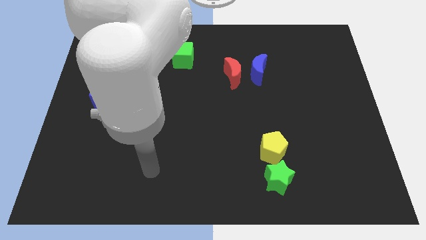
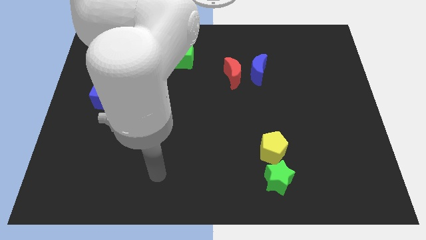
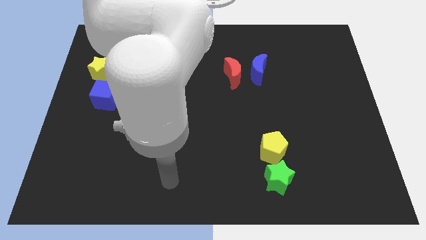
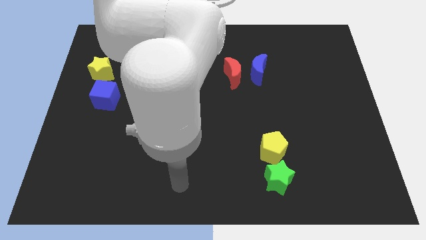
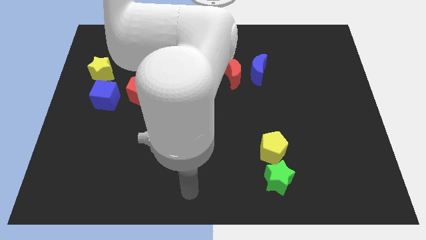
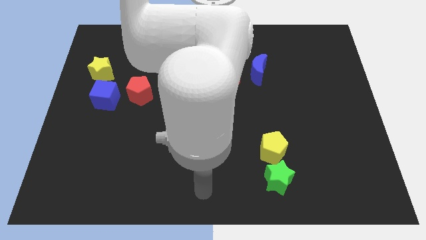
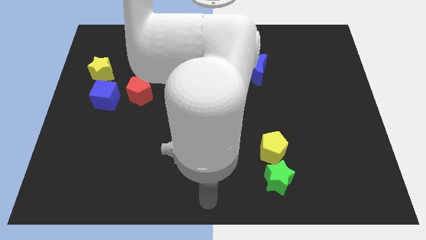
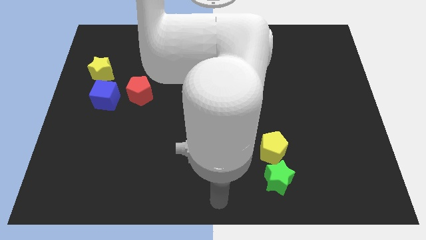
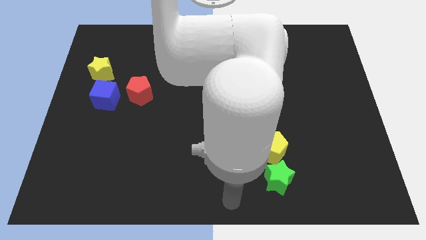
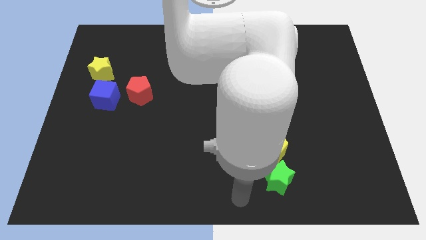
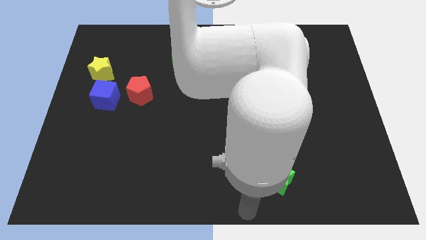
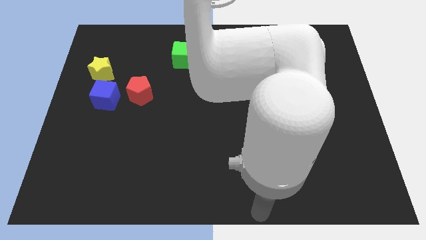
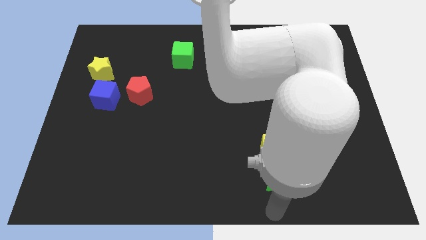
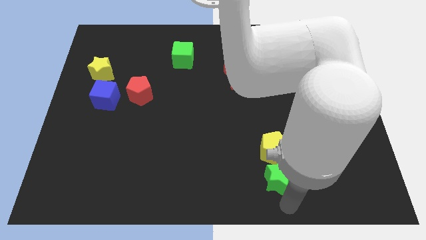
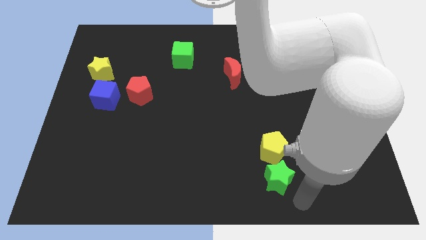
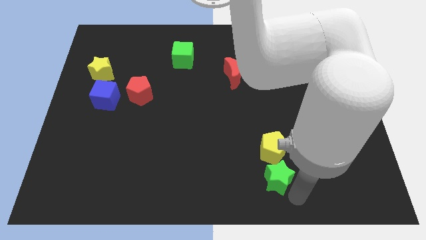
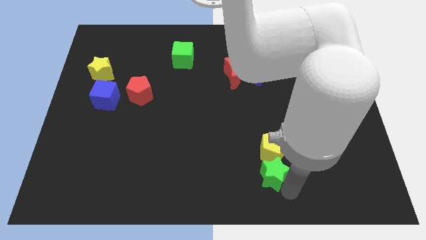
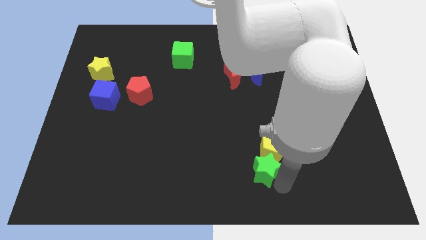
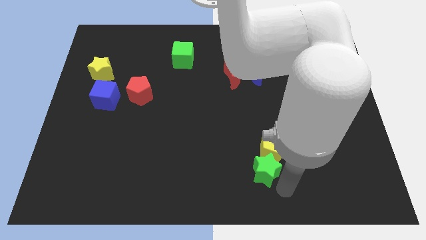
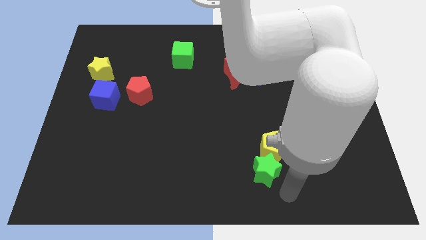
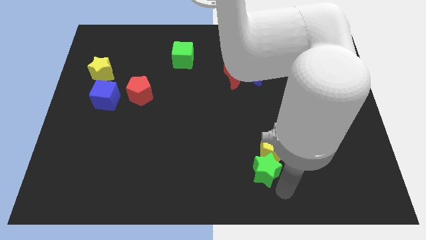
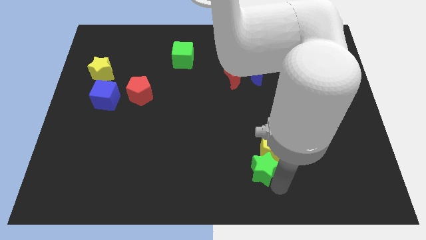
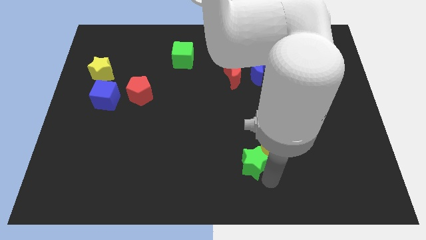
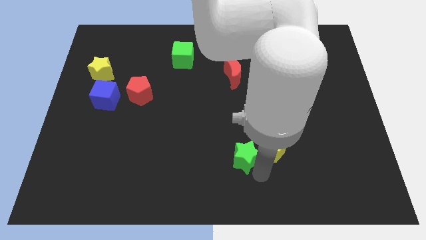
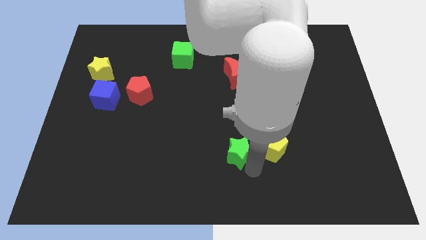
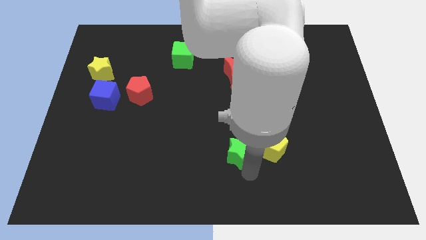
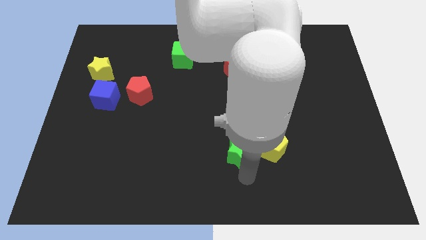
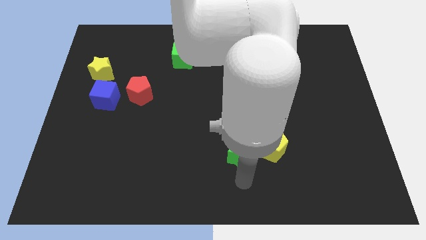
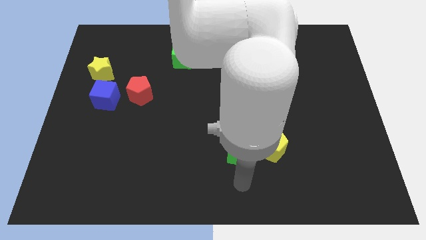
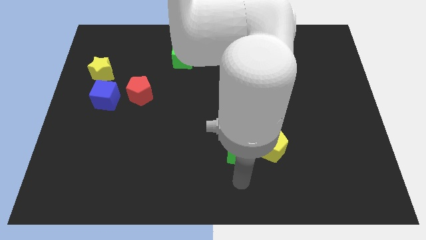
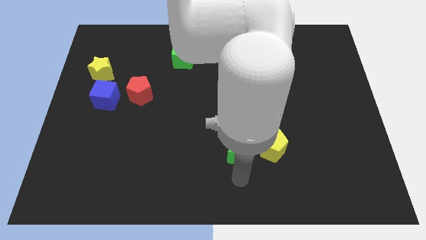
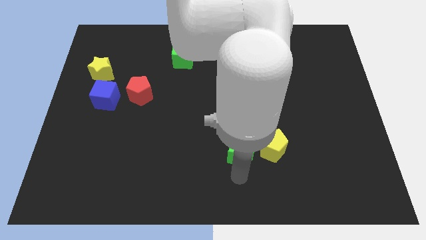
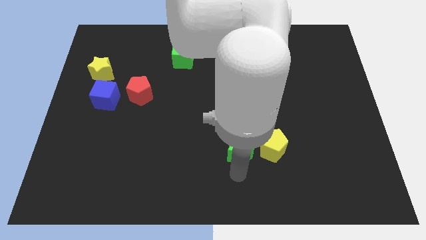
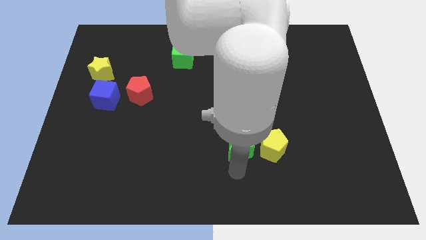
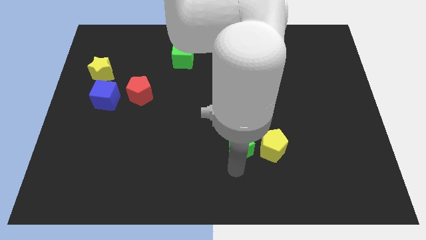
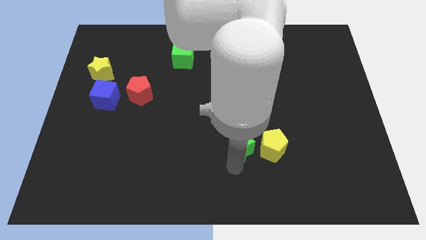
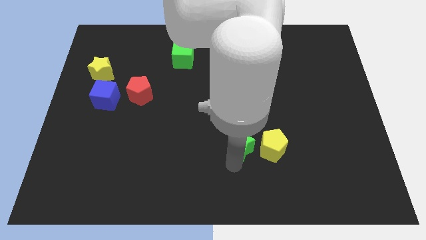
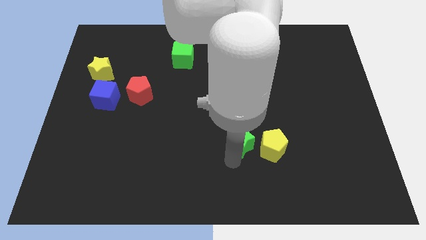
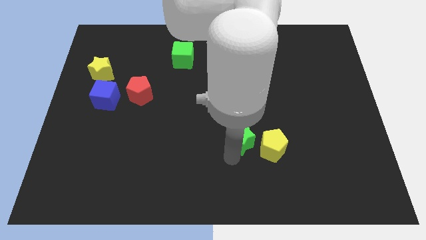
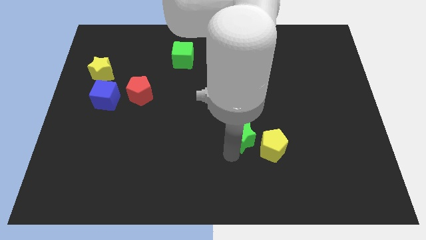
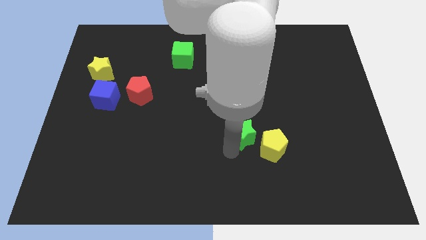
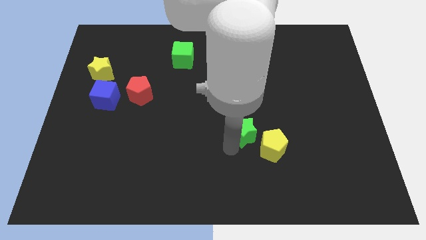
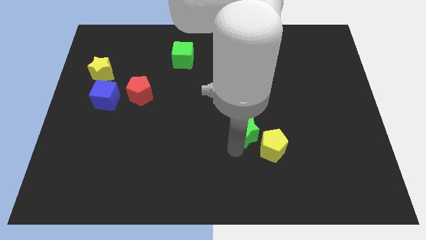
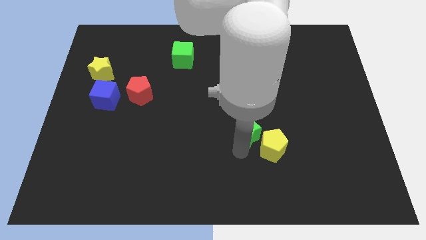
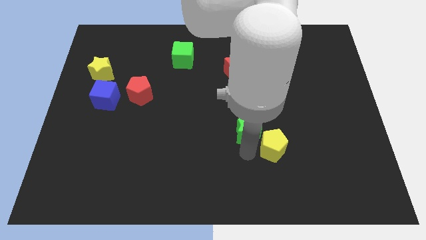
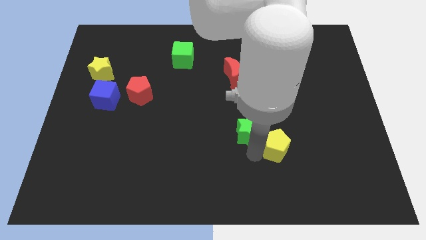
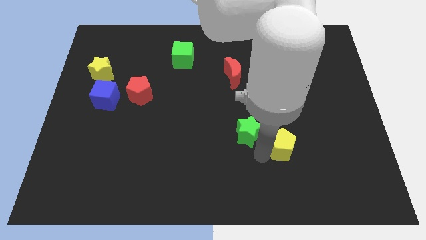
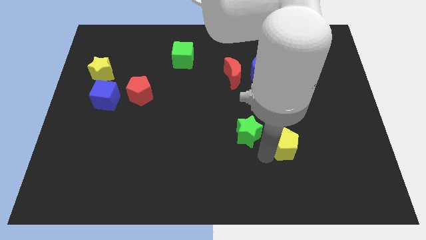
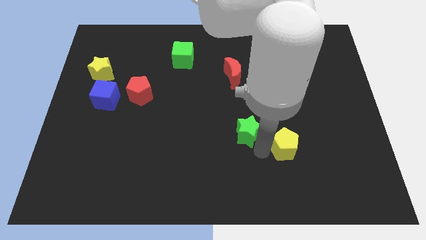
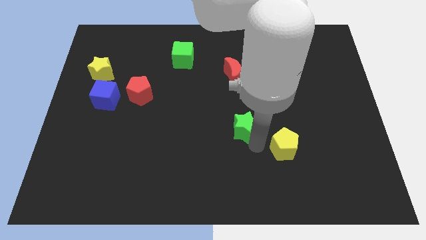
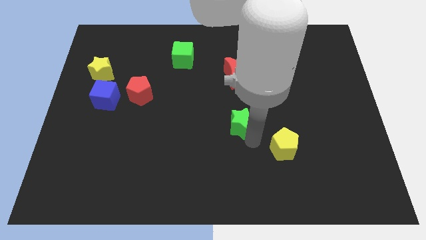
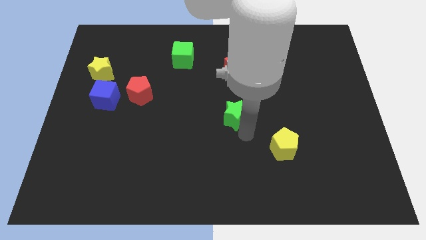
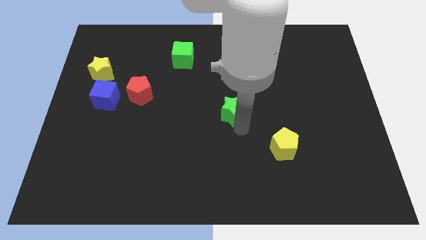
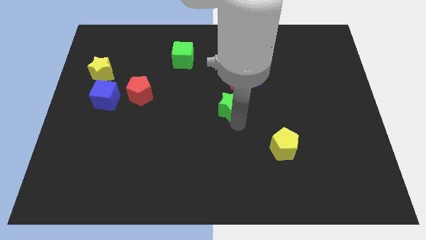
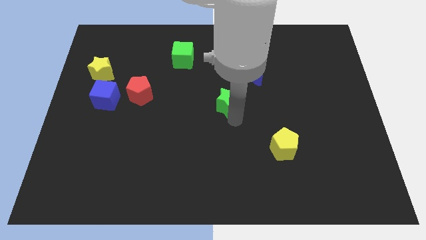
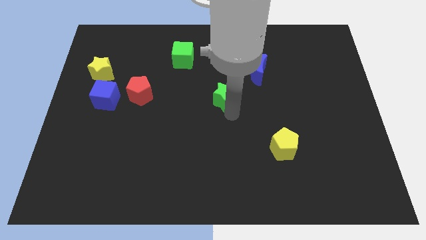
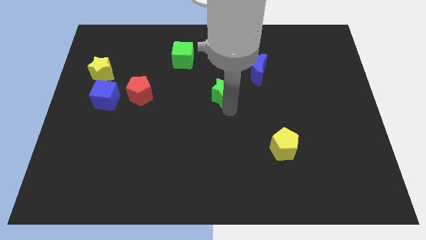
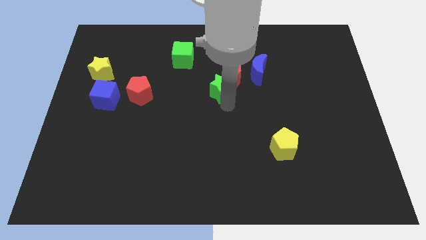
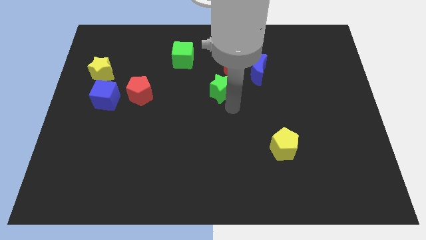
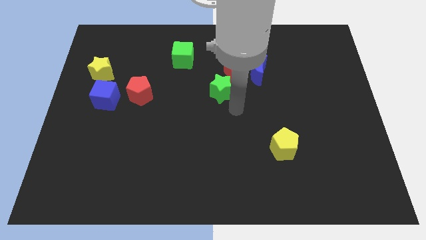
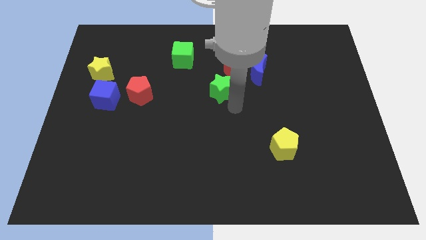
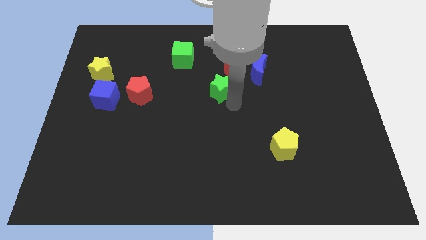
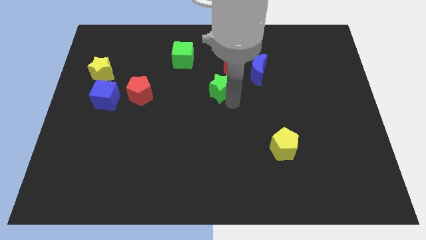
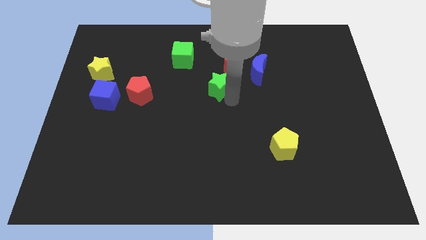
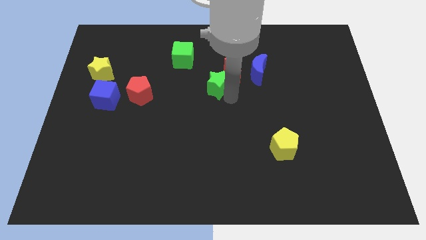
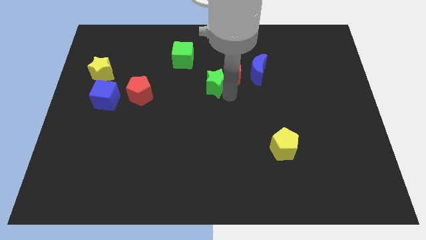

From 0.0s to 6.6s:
move the green star to the bottom right side of the green cube

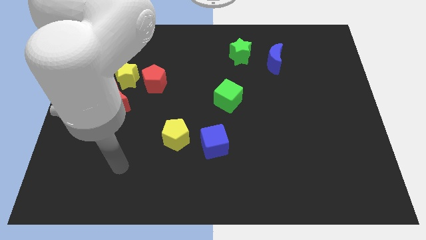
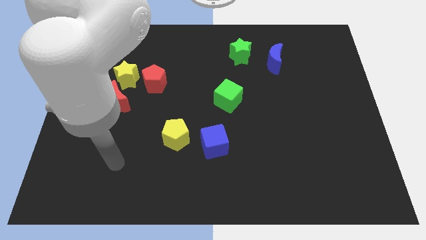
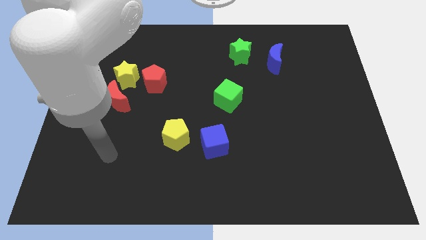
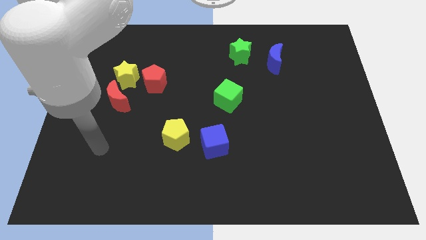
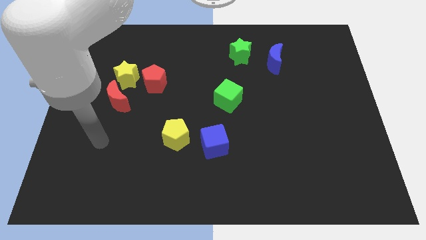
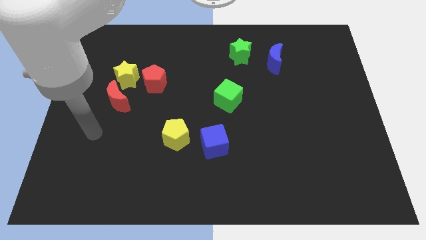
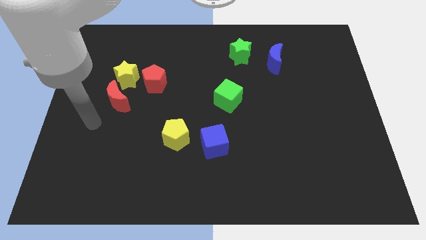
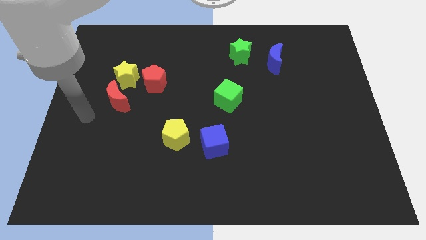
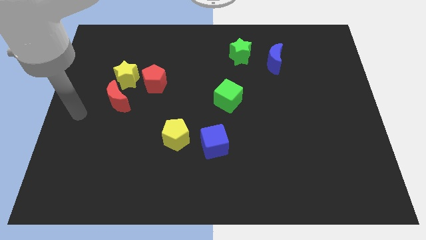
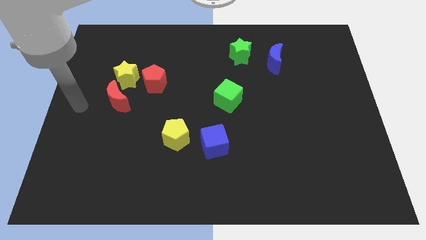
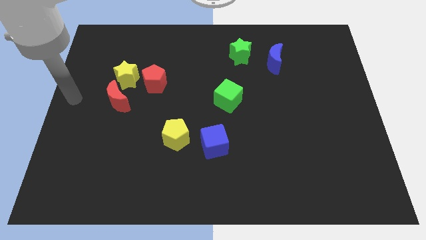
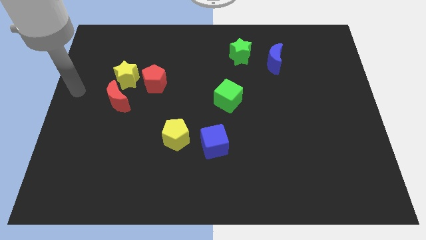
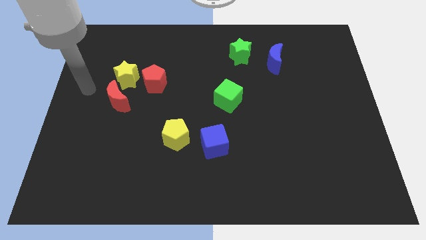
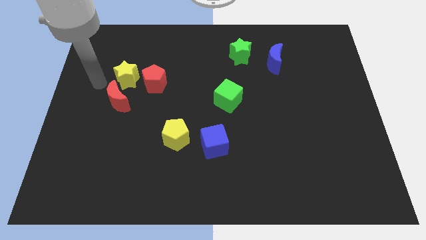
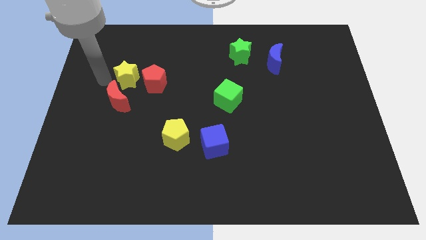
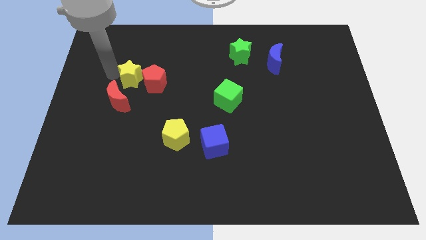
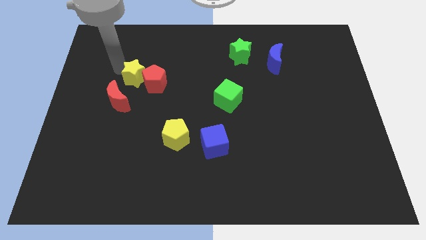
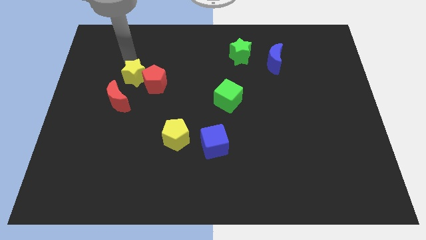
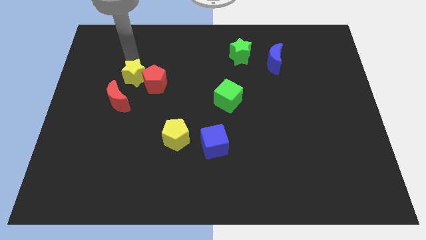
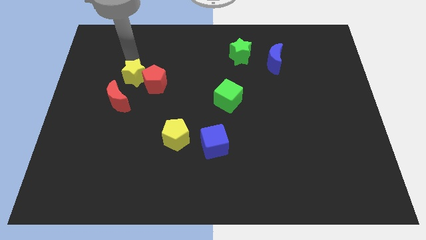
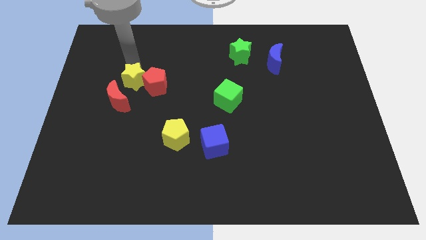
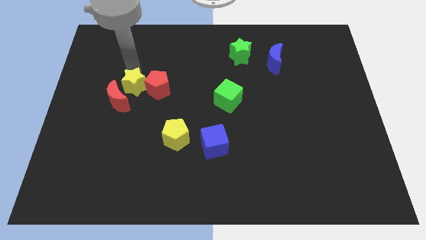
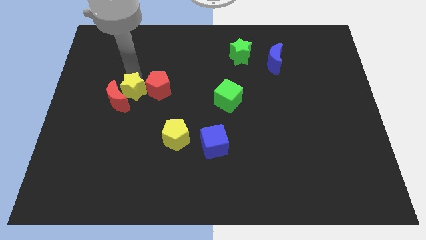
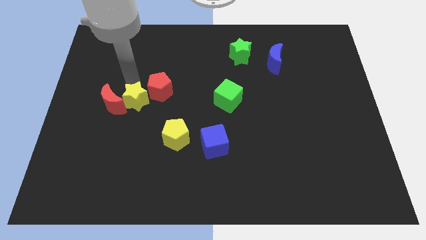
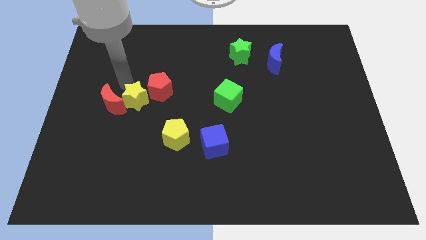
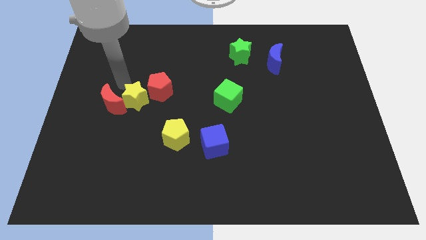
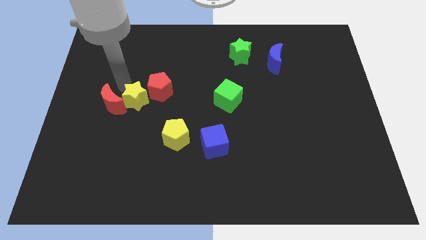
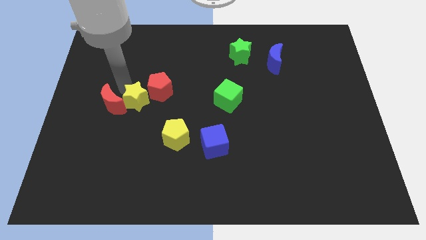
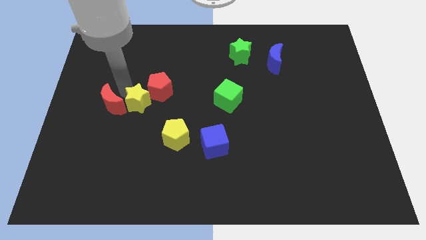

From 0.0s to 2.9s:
slide the yellow star to the bottom side of the red pentagon
